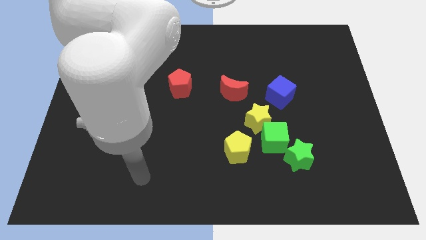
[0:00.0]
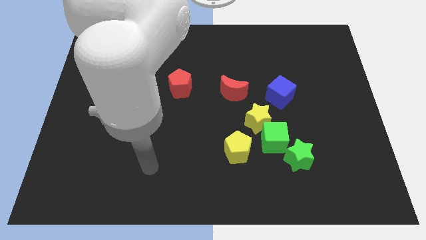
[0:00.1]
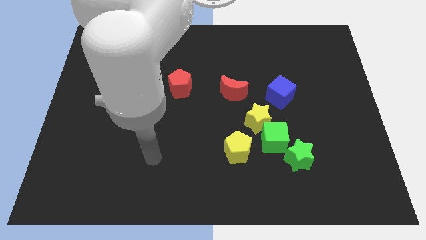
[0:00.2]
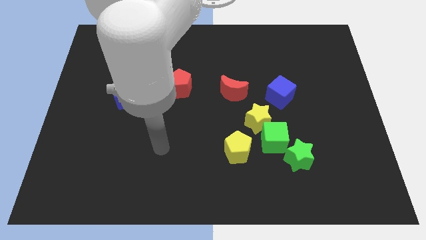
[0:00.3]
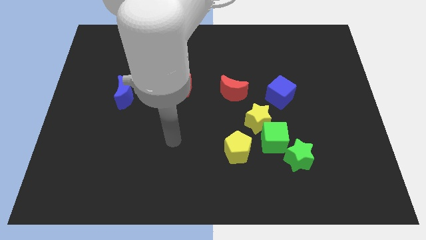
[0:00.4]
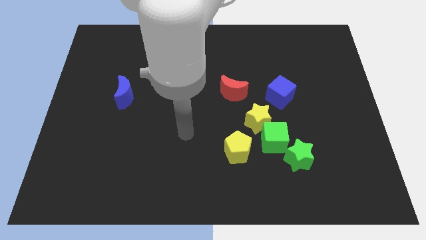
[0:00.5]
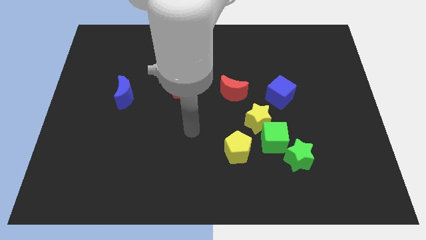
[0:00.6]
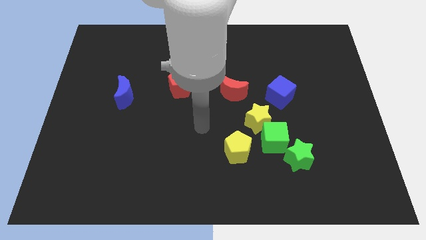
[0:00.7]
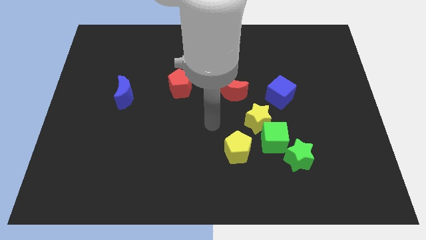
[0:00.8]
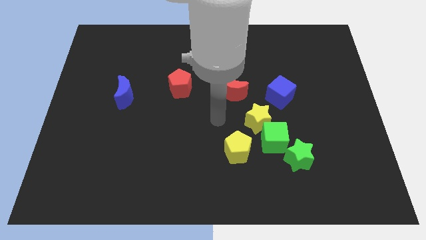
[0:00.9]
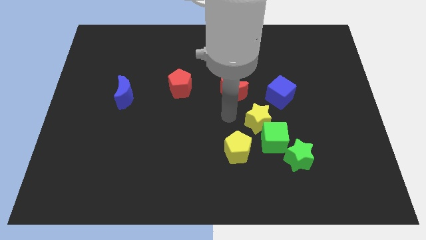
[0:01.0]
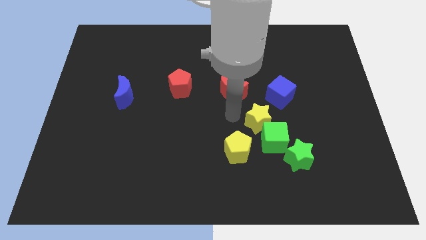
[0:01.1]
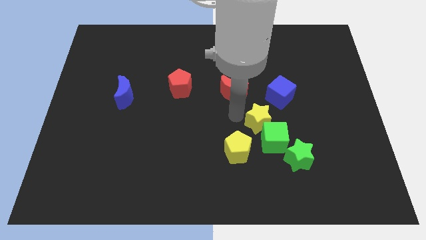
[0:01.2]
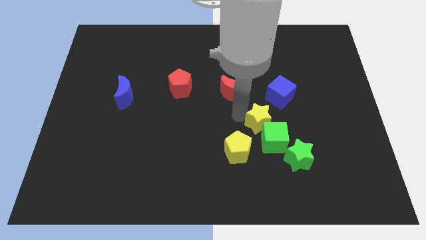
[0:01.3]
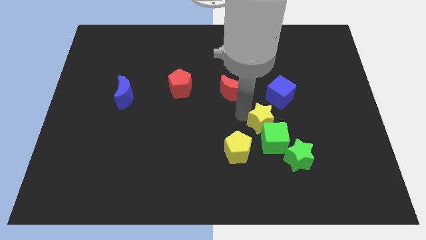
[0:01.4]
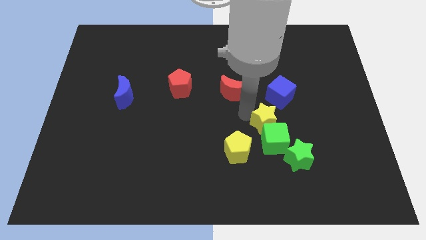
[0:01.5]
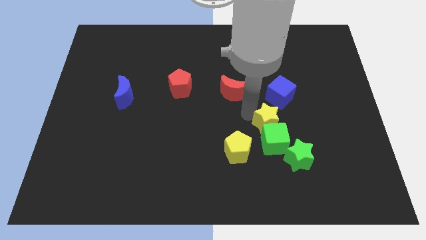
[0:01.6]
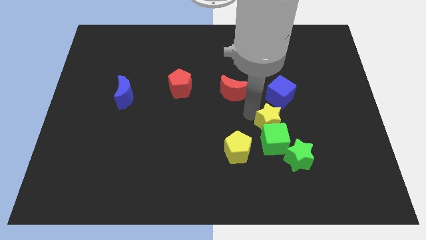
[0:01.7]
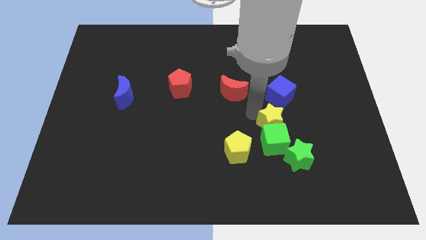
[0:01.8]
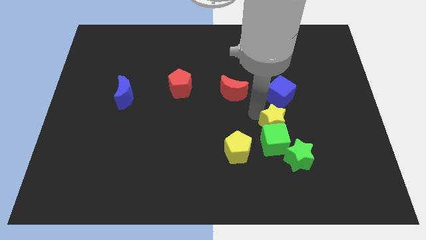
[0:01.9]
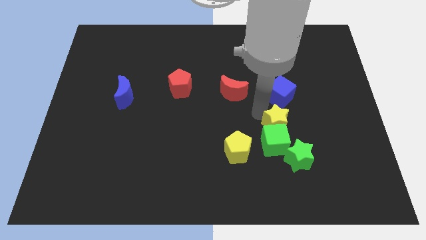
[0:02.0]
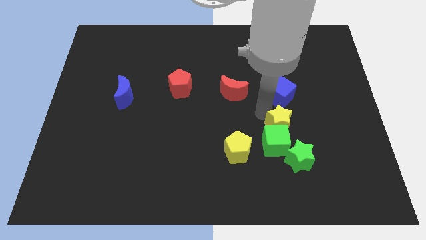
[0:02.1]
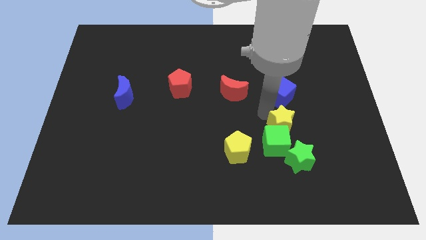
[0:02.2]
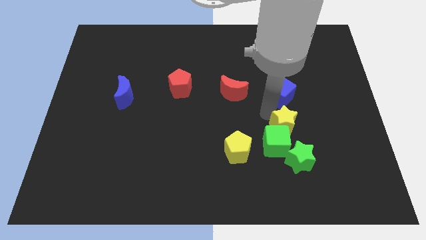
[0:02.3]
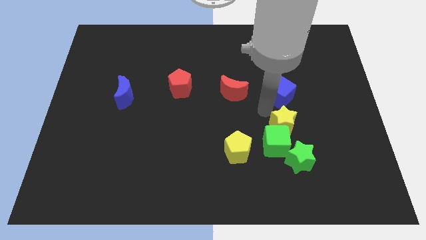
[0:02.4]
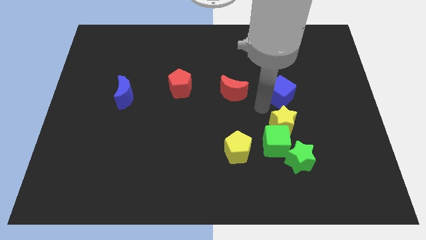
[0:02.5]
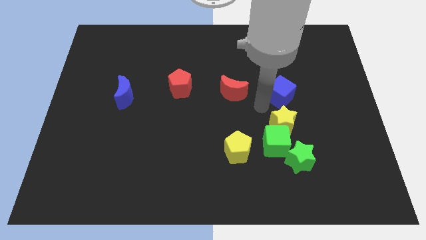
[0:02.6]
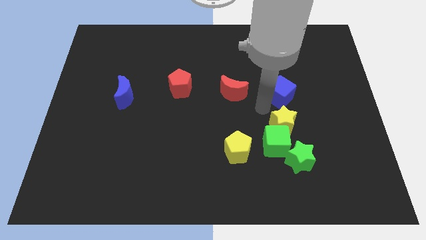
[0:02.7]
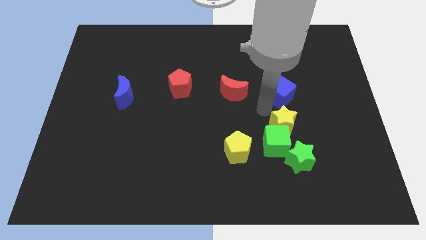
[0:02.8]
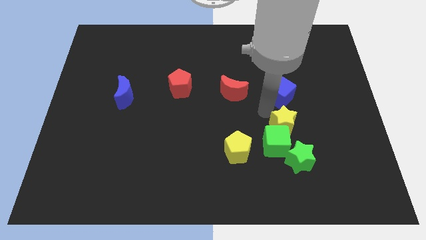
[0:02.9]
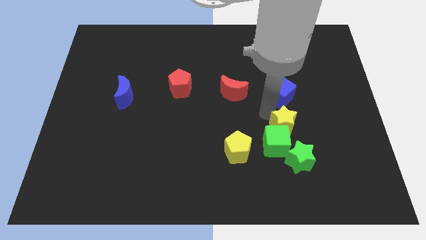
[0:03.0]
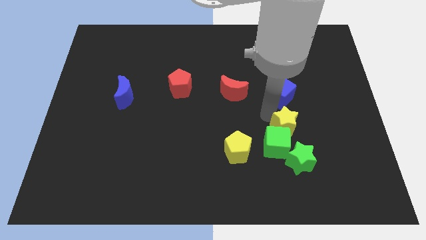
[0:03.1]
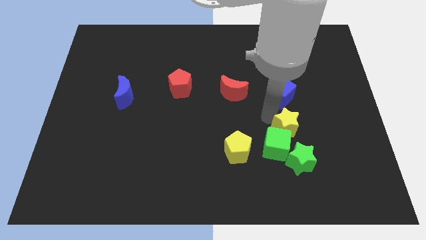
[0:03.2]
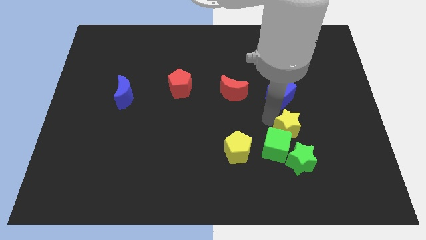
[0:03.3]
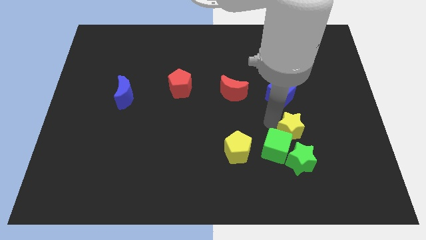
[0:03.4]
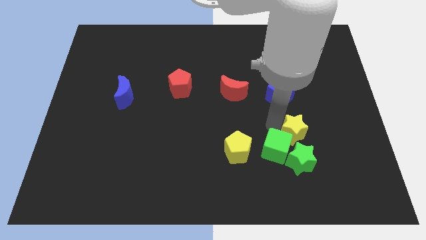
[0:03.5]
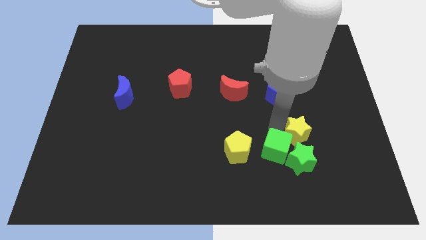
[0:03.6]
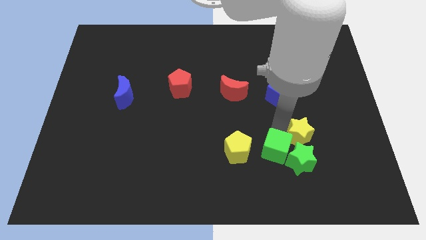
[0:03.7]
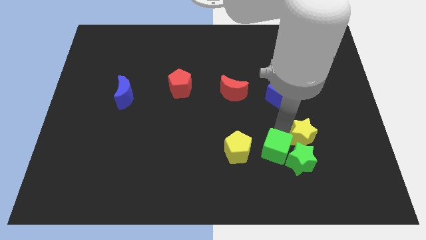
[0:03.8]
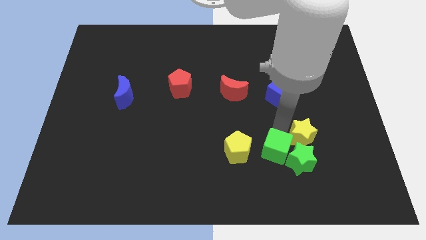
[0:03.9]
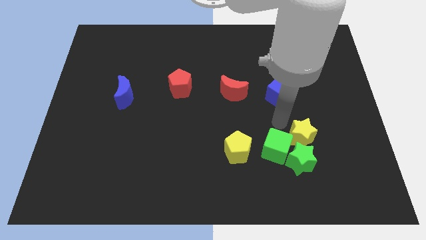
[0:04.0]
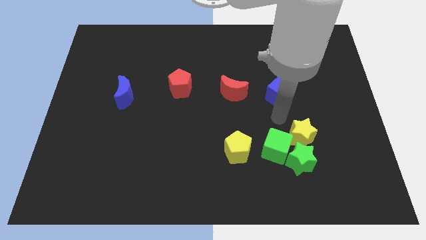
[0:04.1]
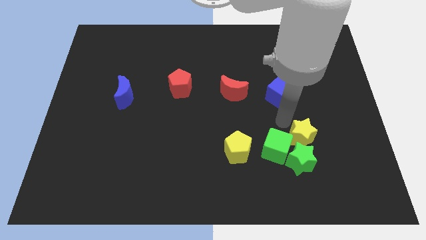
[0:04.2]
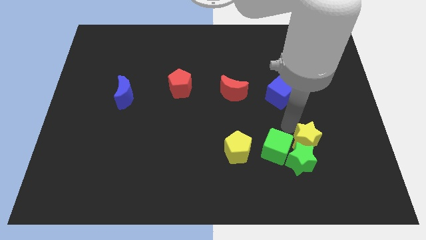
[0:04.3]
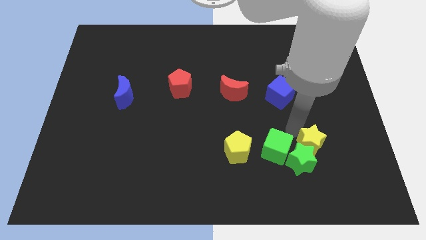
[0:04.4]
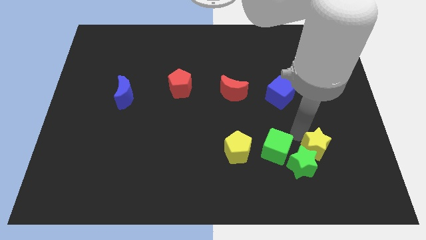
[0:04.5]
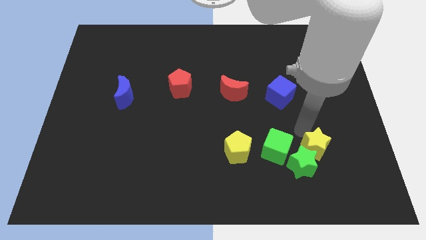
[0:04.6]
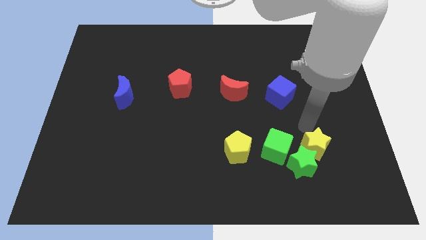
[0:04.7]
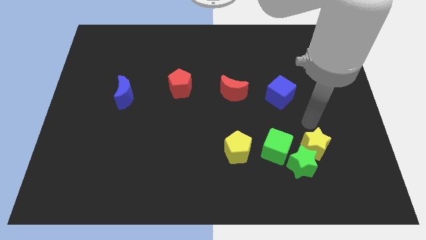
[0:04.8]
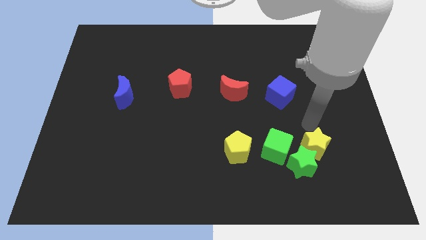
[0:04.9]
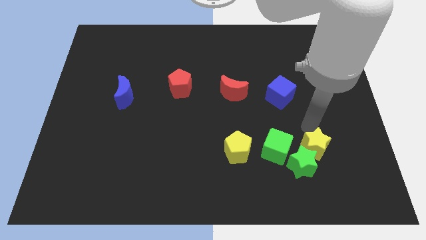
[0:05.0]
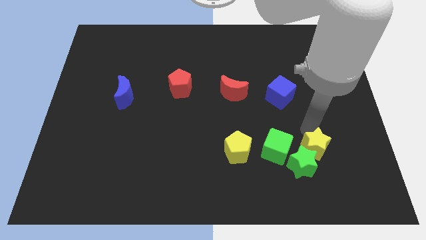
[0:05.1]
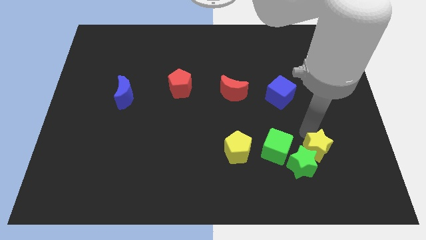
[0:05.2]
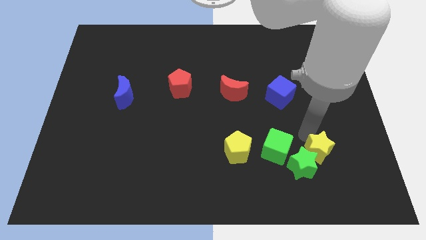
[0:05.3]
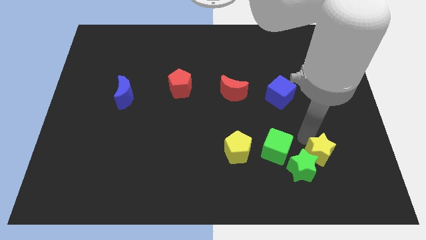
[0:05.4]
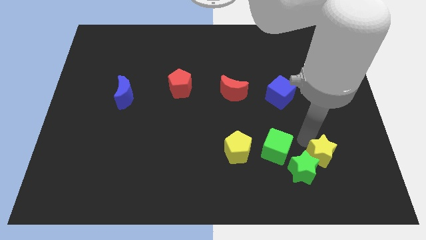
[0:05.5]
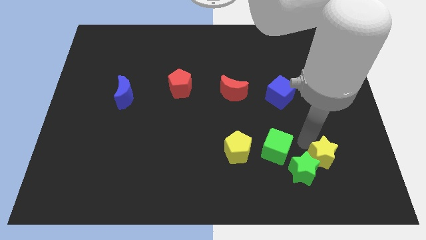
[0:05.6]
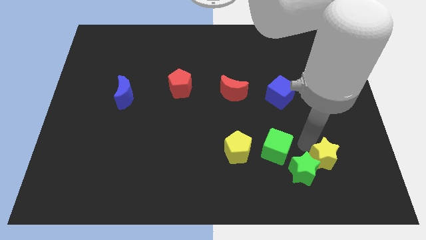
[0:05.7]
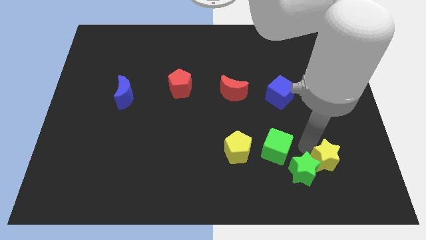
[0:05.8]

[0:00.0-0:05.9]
move the yellow star to the bottom right of the green cube

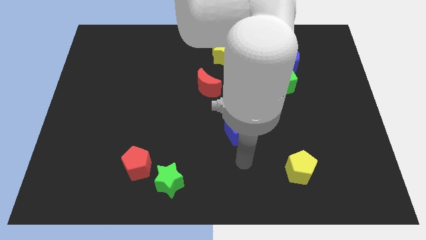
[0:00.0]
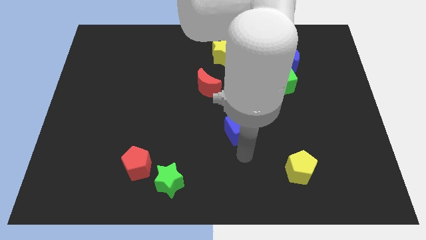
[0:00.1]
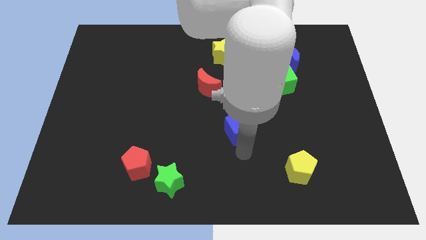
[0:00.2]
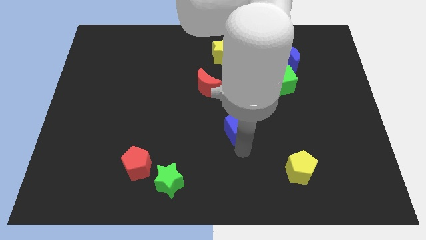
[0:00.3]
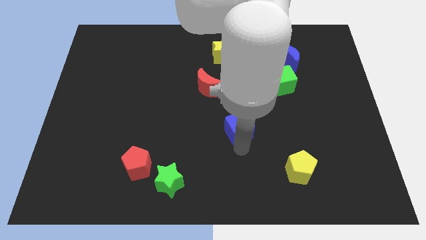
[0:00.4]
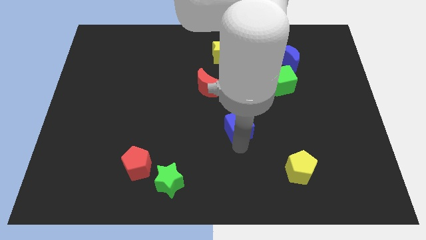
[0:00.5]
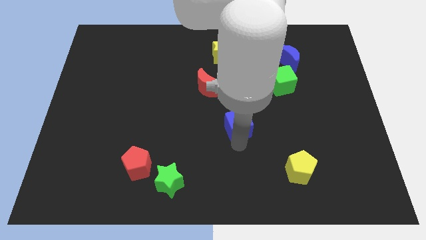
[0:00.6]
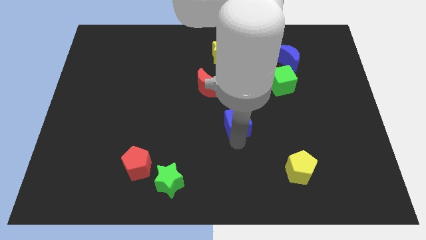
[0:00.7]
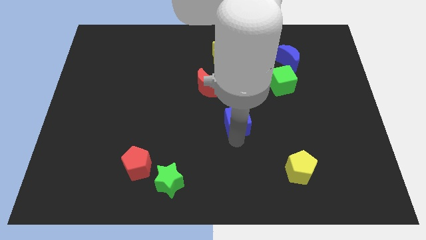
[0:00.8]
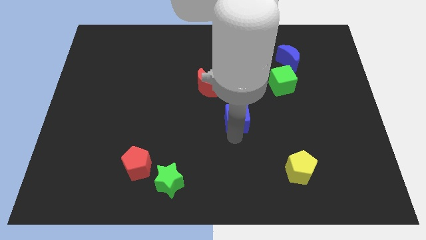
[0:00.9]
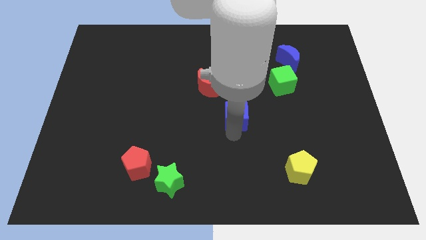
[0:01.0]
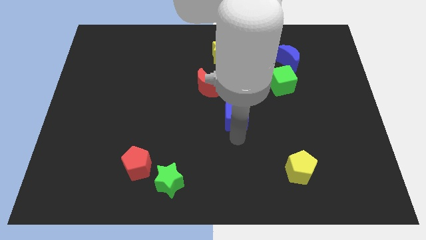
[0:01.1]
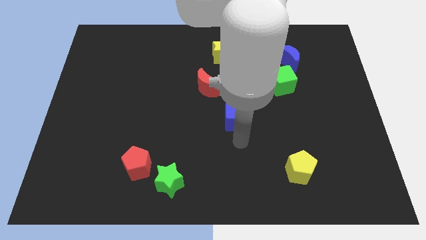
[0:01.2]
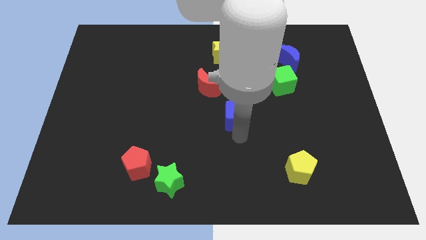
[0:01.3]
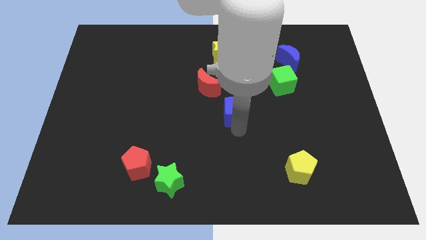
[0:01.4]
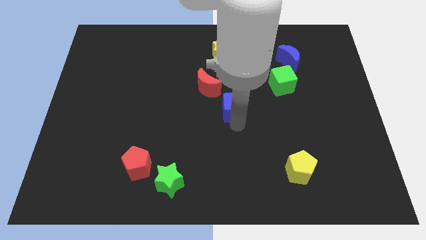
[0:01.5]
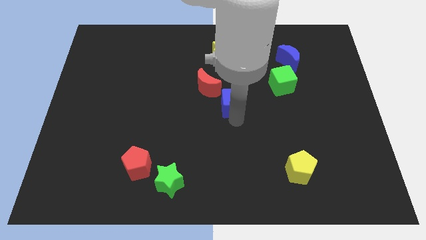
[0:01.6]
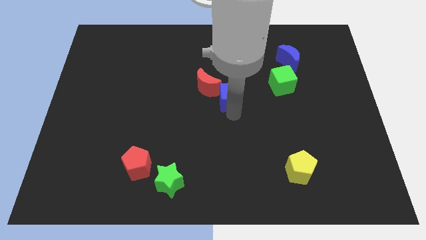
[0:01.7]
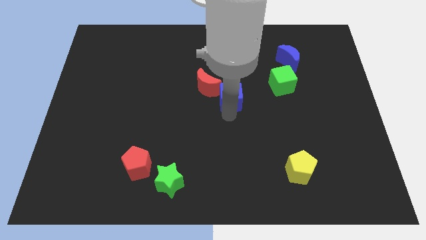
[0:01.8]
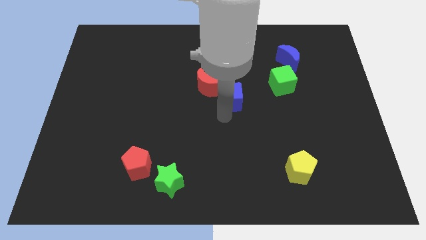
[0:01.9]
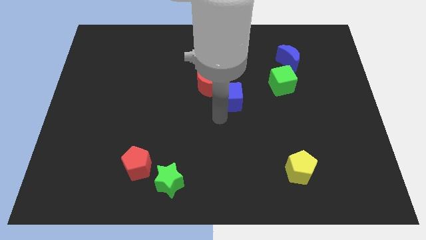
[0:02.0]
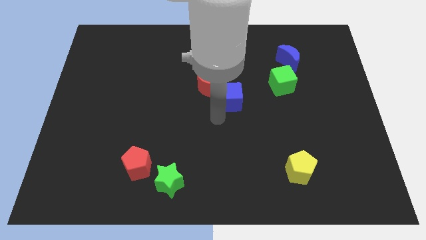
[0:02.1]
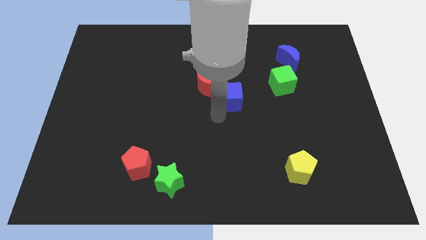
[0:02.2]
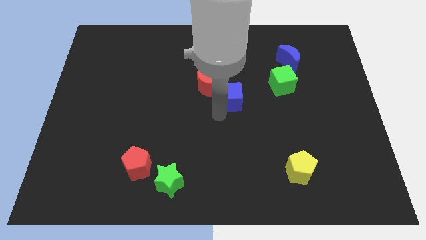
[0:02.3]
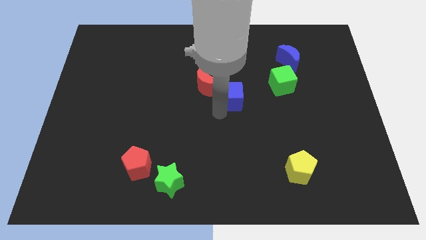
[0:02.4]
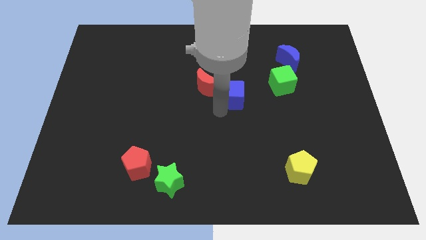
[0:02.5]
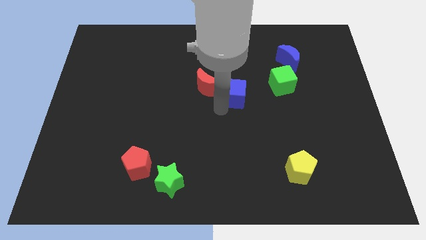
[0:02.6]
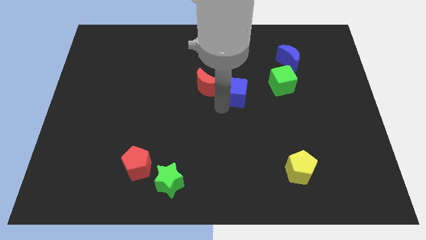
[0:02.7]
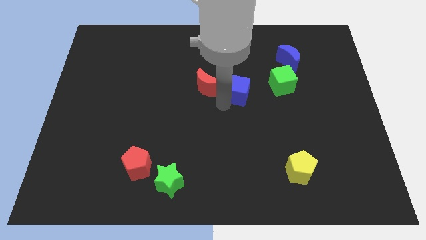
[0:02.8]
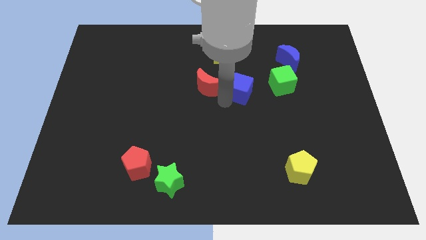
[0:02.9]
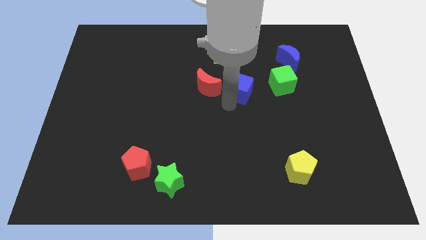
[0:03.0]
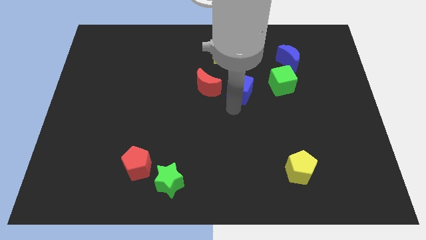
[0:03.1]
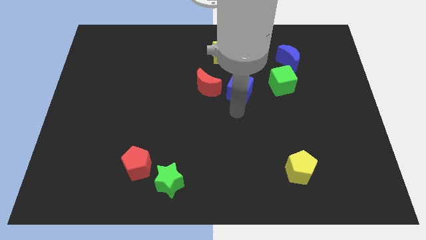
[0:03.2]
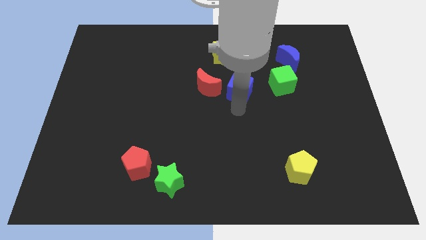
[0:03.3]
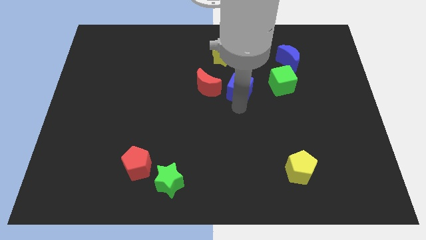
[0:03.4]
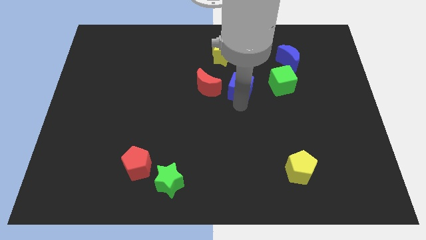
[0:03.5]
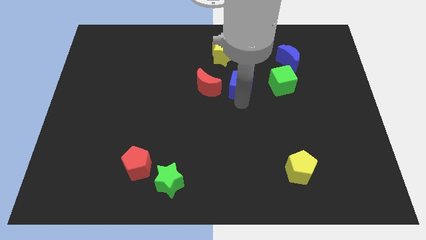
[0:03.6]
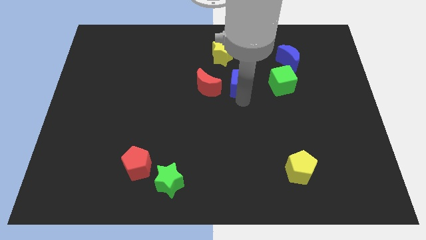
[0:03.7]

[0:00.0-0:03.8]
push the blue cube to the bottom right of the yellow star
